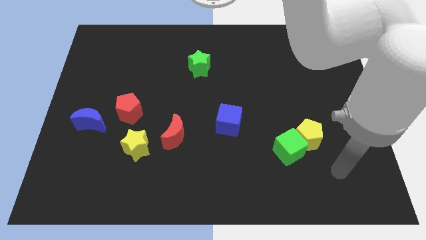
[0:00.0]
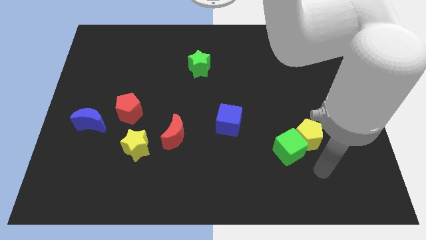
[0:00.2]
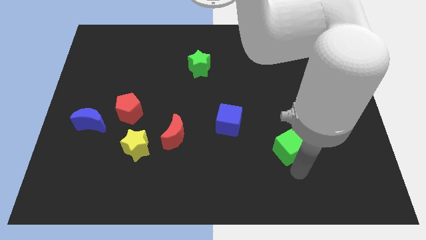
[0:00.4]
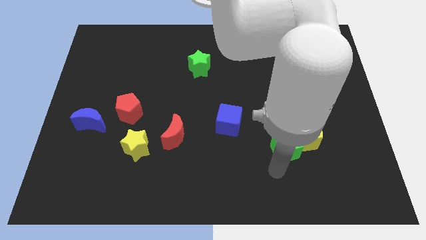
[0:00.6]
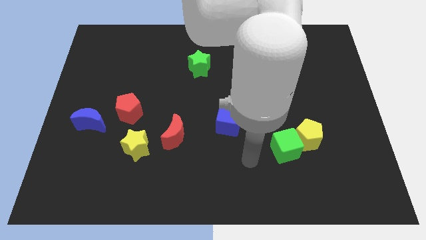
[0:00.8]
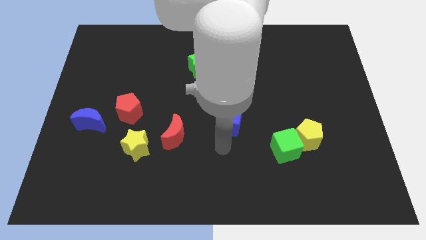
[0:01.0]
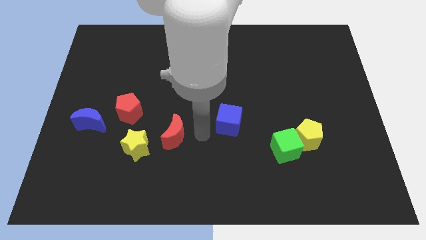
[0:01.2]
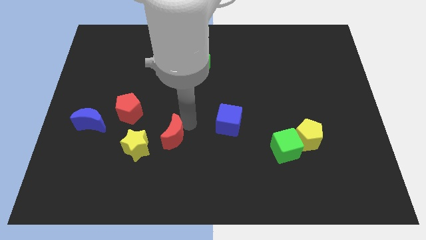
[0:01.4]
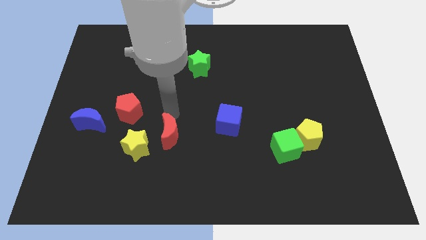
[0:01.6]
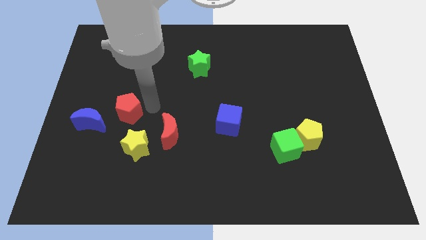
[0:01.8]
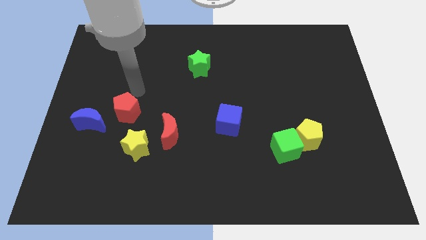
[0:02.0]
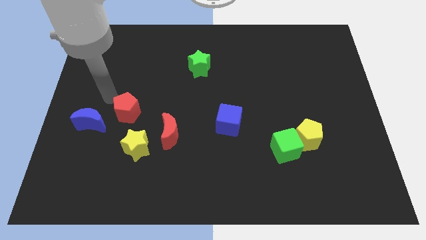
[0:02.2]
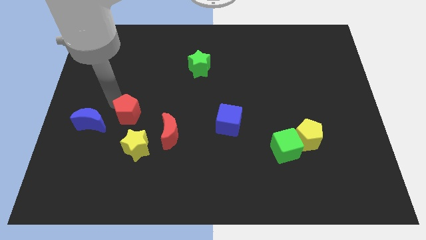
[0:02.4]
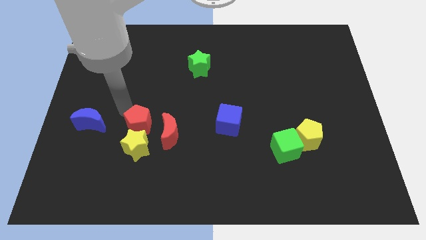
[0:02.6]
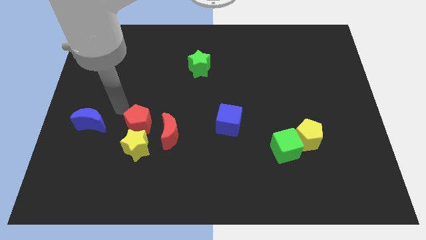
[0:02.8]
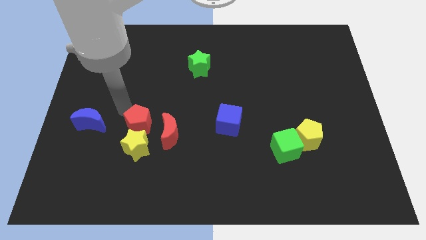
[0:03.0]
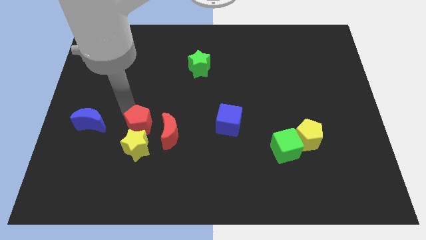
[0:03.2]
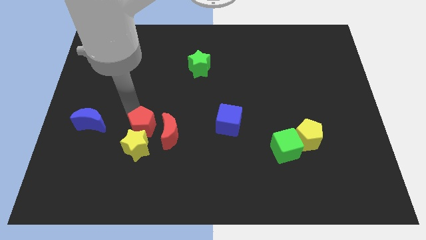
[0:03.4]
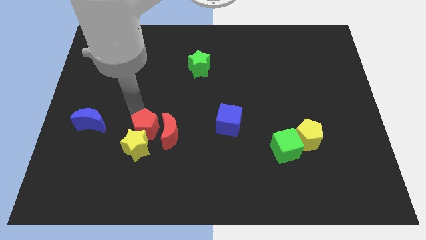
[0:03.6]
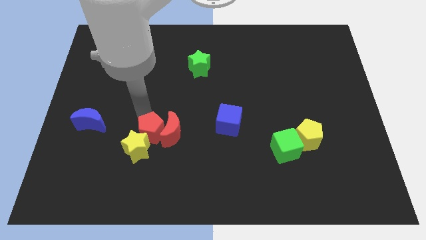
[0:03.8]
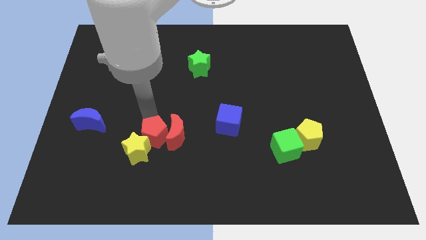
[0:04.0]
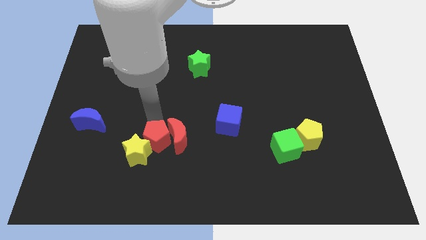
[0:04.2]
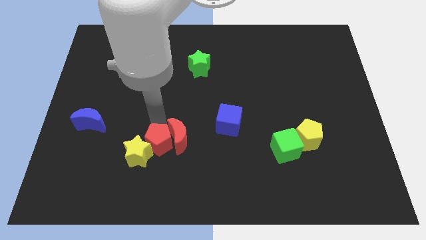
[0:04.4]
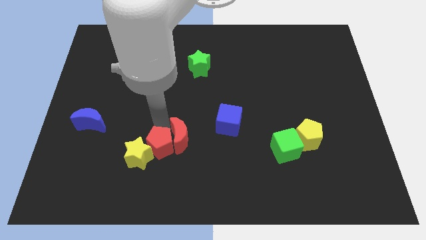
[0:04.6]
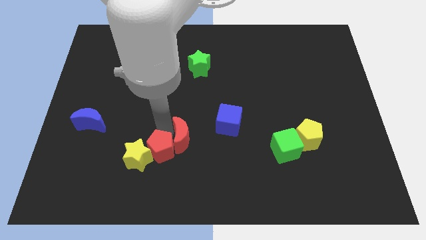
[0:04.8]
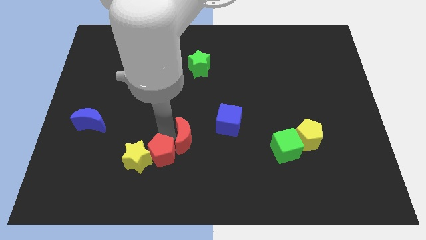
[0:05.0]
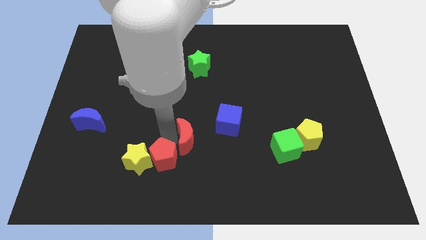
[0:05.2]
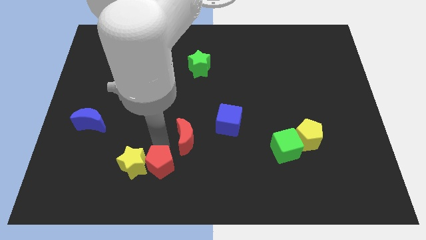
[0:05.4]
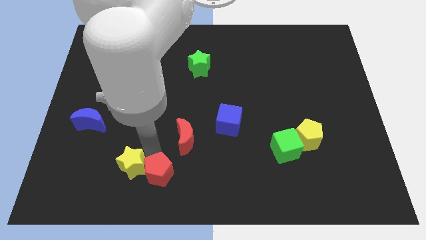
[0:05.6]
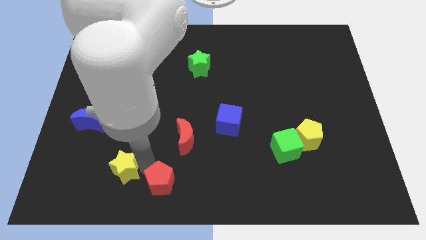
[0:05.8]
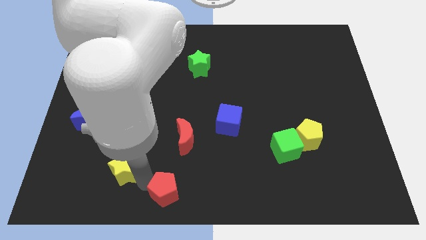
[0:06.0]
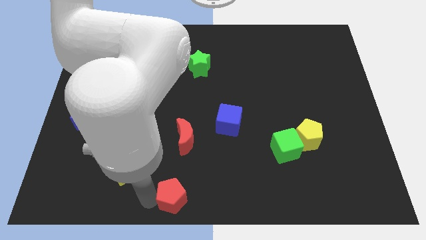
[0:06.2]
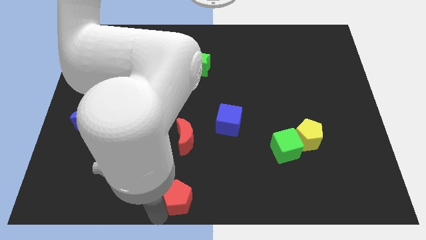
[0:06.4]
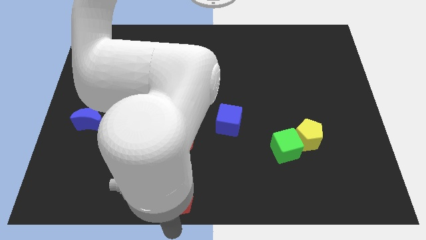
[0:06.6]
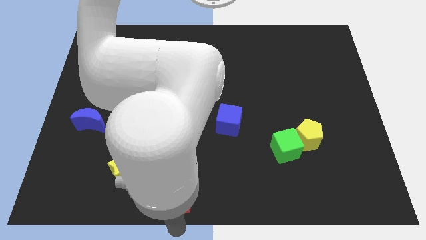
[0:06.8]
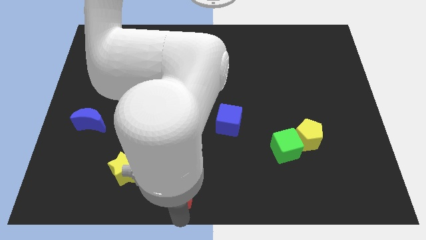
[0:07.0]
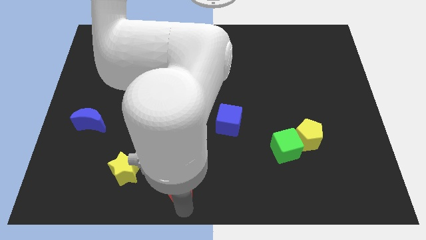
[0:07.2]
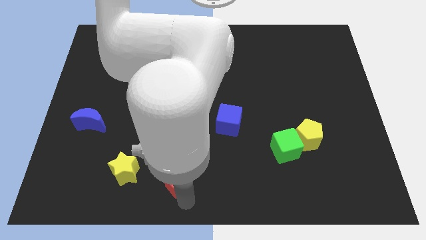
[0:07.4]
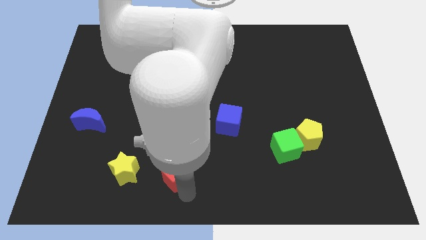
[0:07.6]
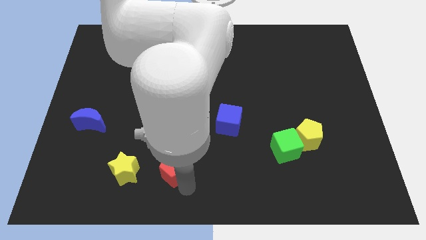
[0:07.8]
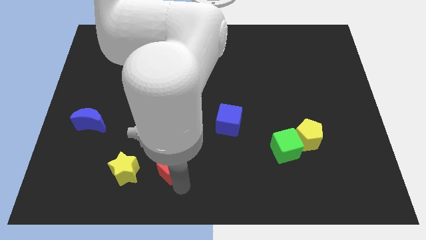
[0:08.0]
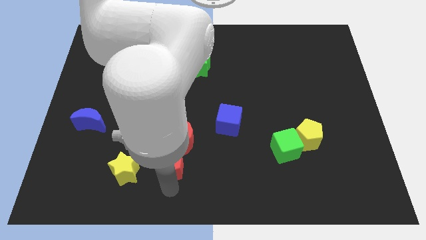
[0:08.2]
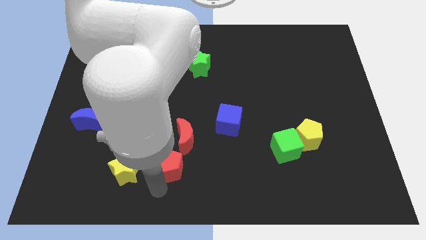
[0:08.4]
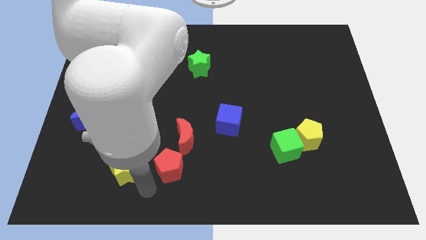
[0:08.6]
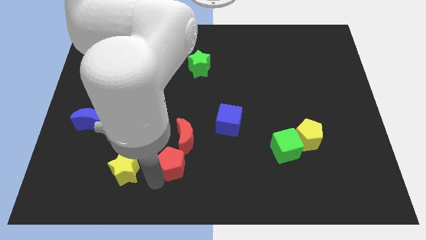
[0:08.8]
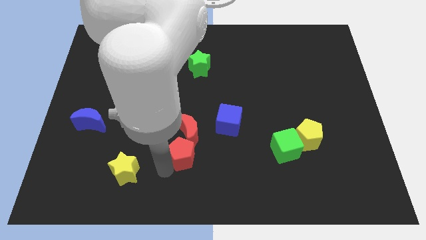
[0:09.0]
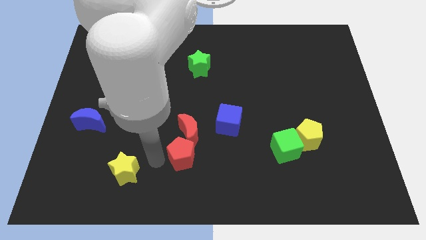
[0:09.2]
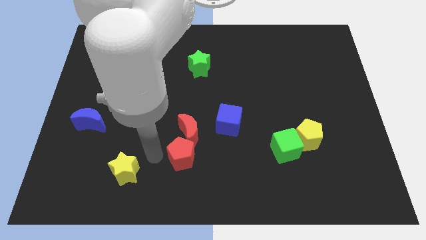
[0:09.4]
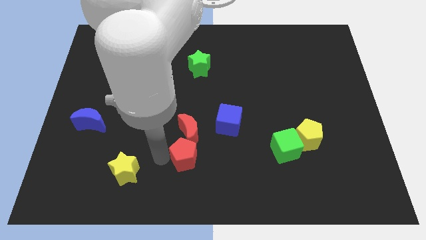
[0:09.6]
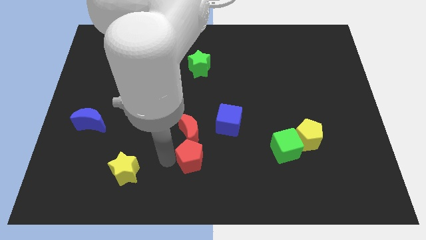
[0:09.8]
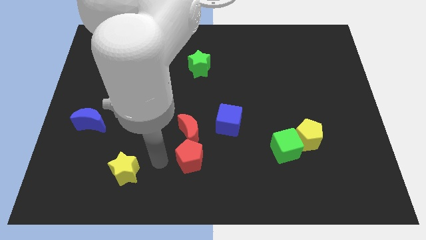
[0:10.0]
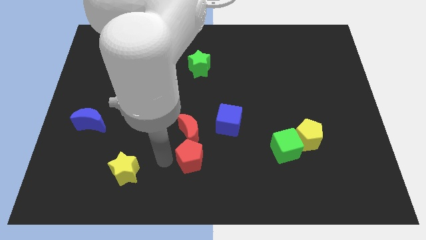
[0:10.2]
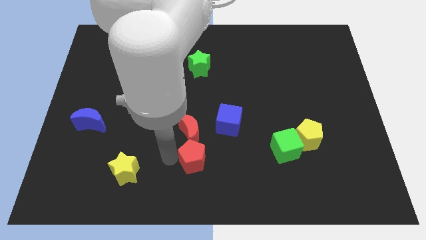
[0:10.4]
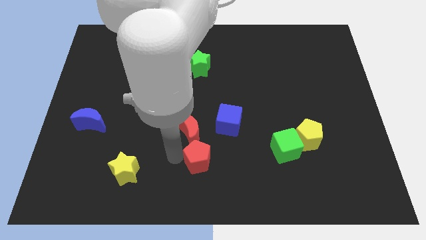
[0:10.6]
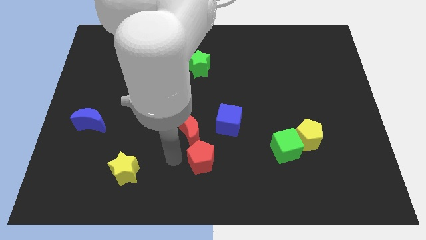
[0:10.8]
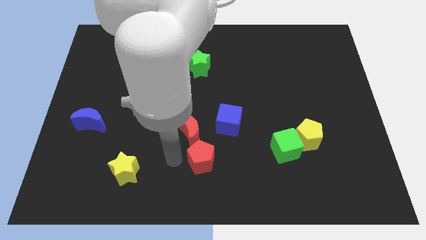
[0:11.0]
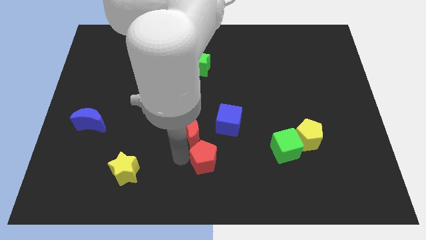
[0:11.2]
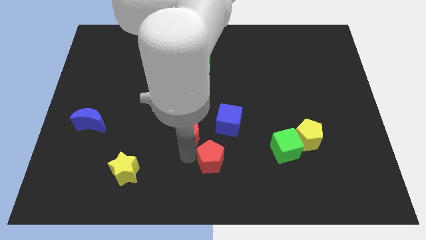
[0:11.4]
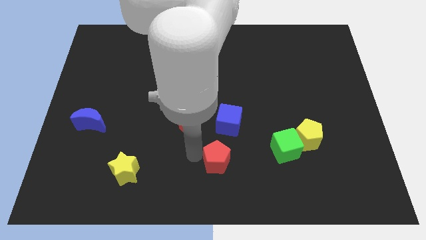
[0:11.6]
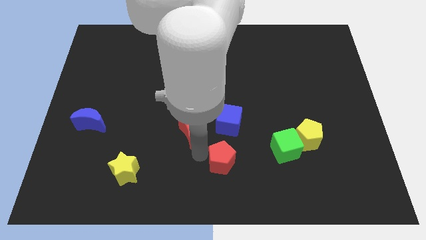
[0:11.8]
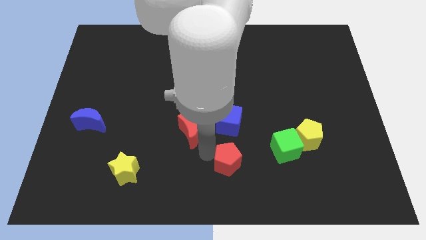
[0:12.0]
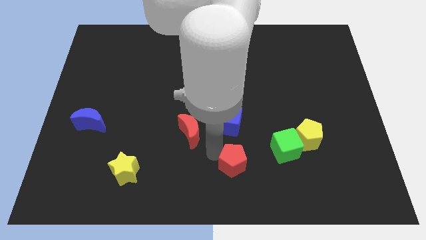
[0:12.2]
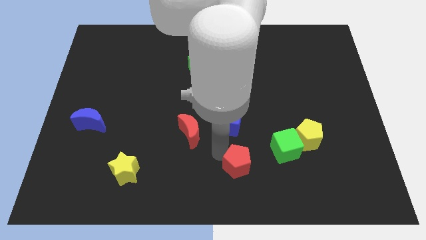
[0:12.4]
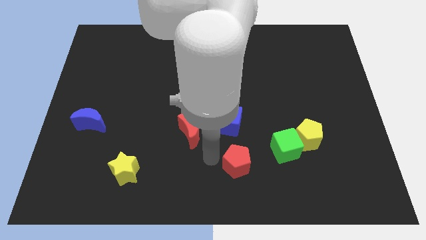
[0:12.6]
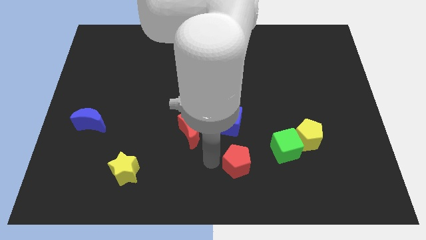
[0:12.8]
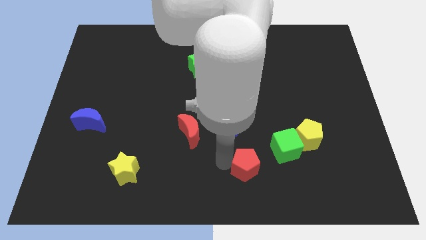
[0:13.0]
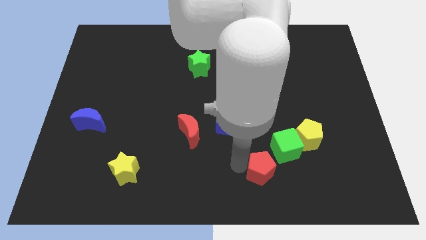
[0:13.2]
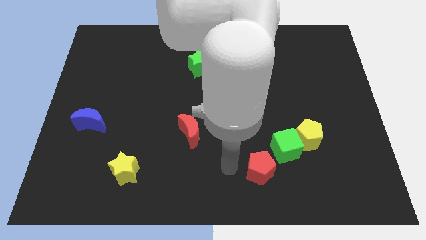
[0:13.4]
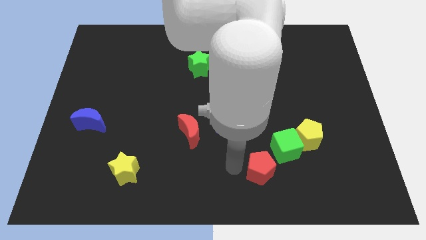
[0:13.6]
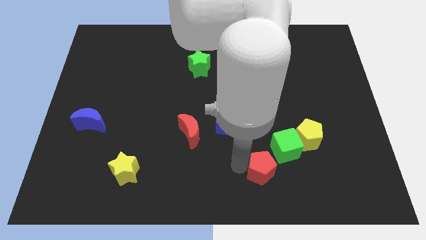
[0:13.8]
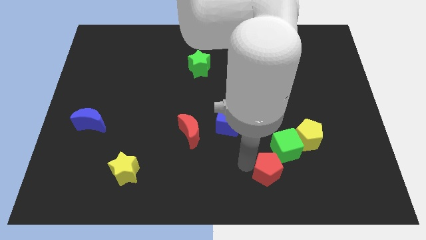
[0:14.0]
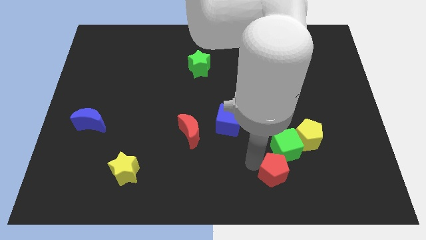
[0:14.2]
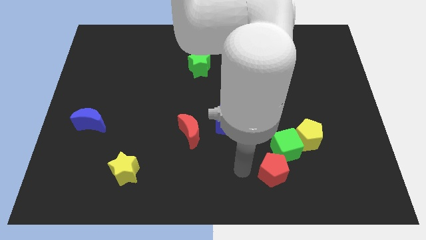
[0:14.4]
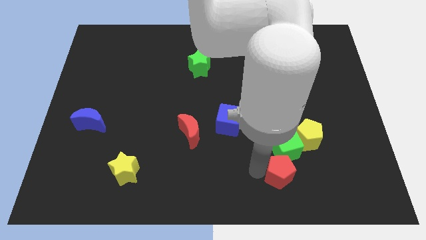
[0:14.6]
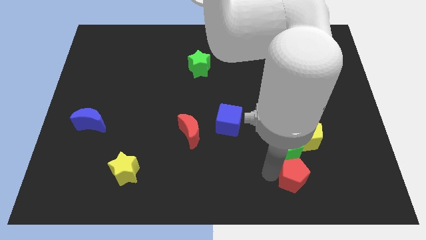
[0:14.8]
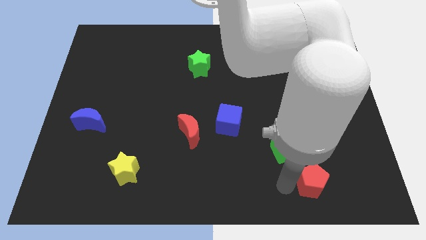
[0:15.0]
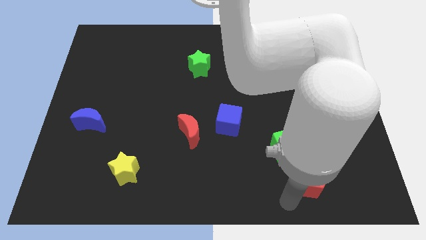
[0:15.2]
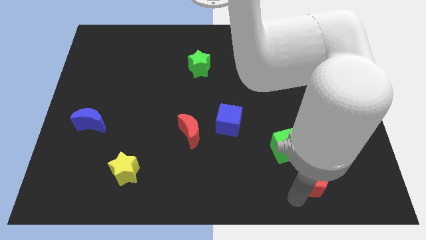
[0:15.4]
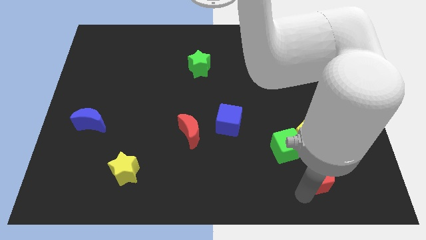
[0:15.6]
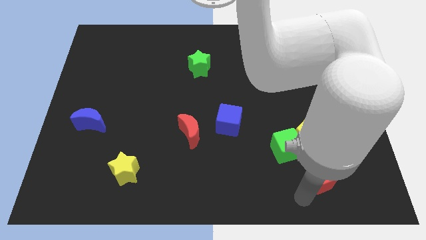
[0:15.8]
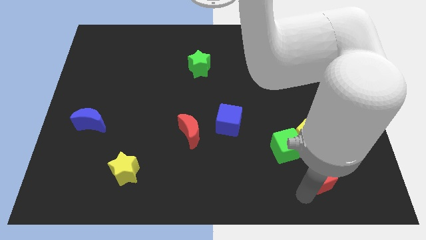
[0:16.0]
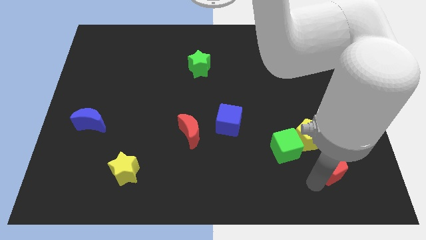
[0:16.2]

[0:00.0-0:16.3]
slide the red pentagon to the bottom right side of the yellow pentagon
